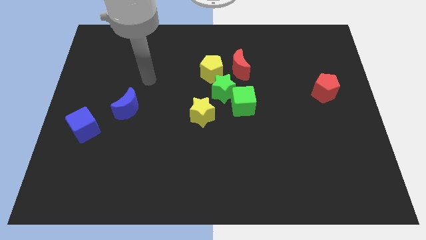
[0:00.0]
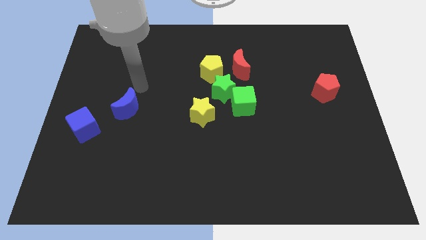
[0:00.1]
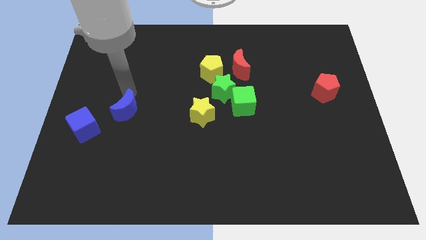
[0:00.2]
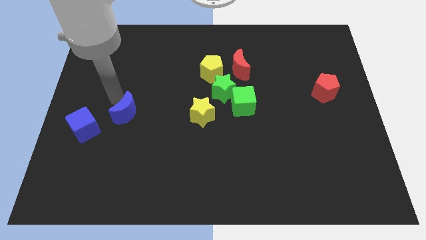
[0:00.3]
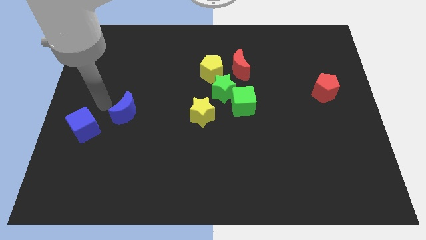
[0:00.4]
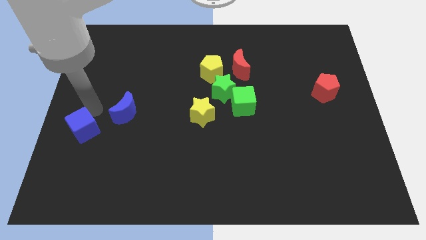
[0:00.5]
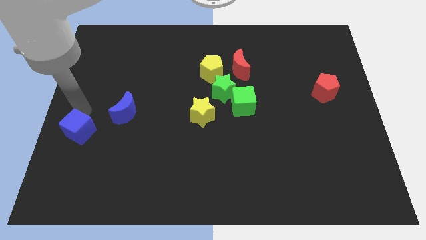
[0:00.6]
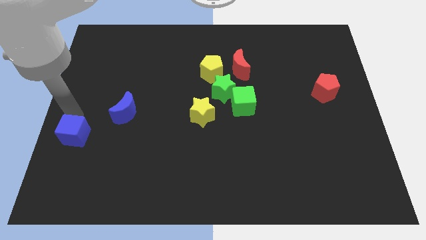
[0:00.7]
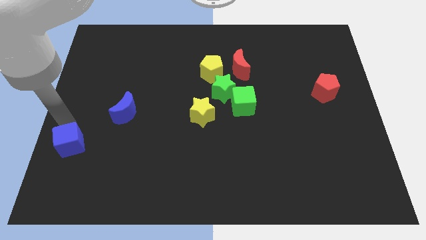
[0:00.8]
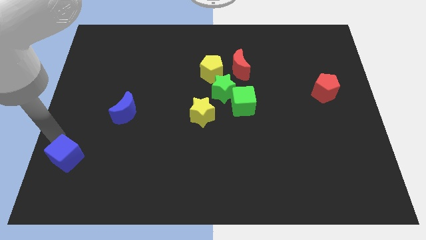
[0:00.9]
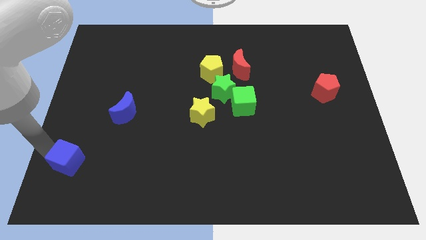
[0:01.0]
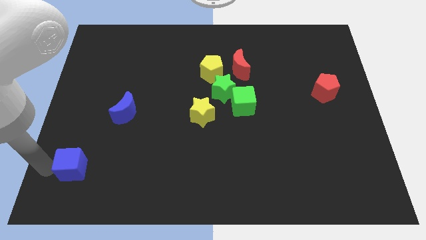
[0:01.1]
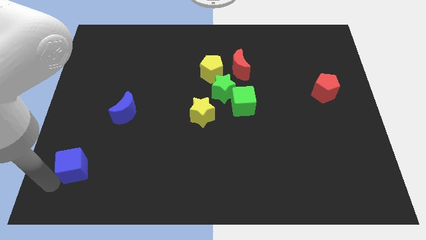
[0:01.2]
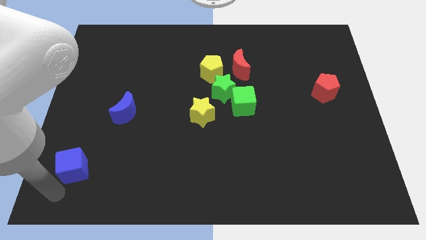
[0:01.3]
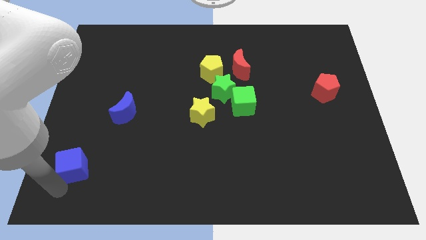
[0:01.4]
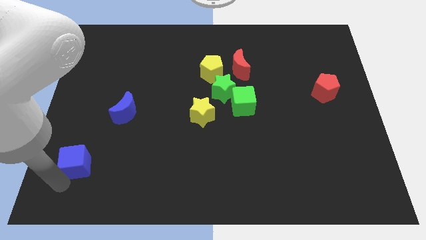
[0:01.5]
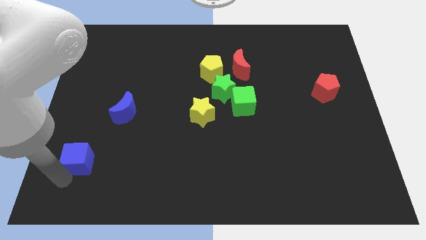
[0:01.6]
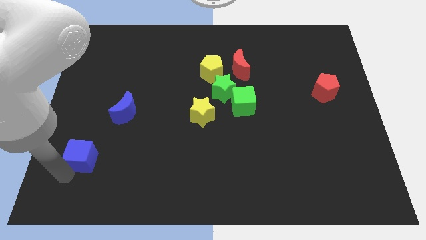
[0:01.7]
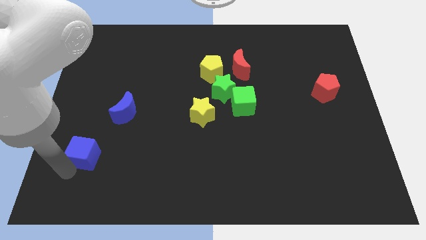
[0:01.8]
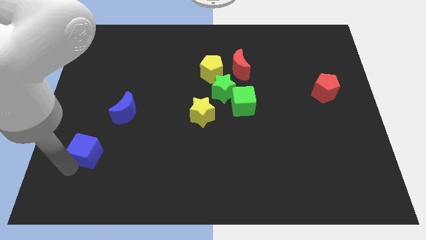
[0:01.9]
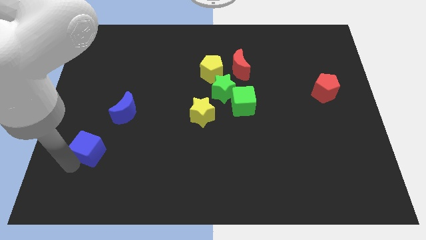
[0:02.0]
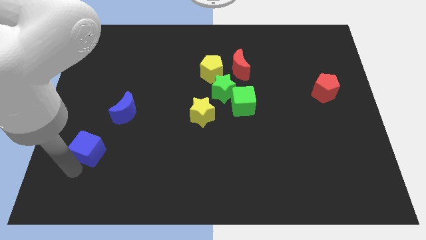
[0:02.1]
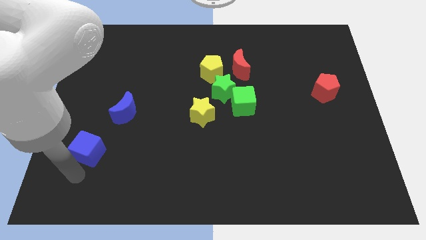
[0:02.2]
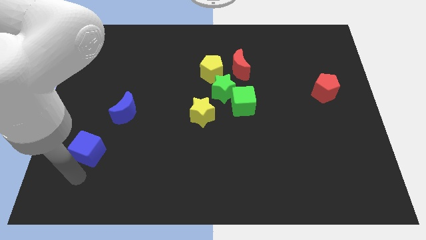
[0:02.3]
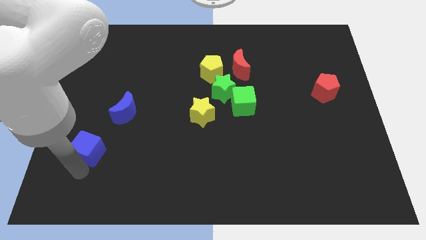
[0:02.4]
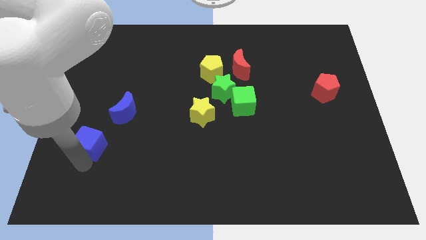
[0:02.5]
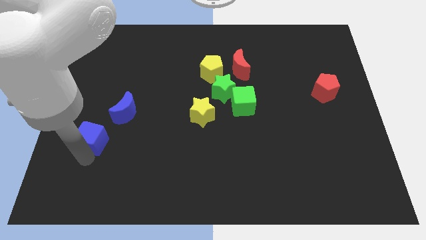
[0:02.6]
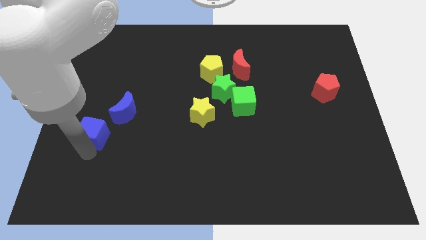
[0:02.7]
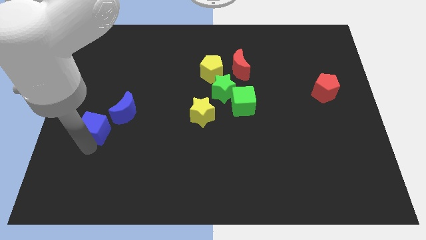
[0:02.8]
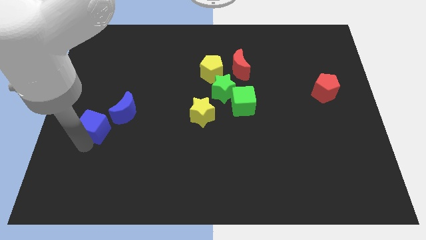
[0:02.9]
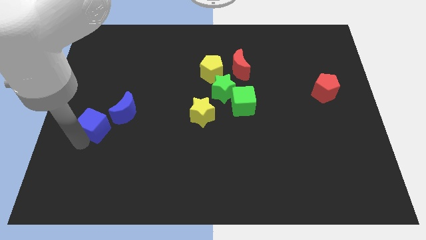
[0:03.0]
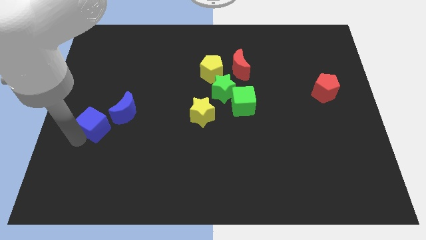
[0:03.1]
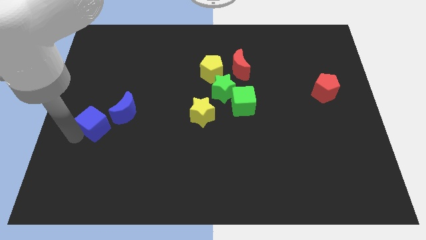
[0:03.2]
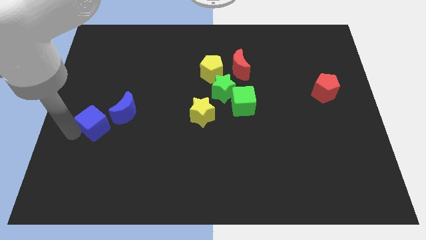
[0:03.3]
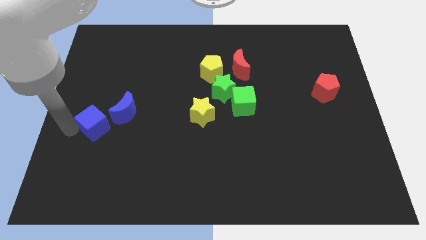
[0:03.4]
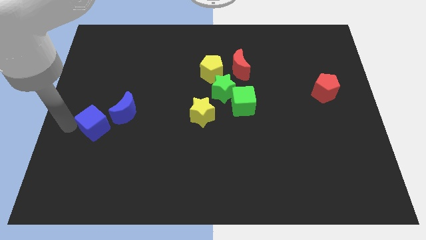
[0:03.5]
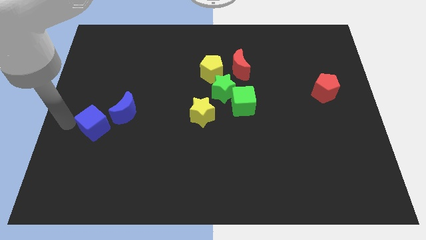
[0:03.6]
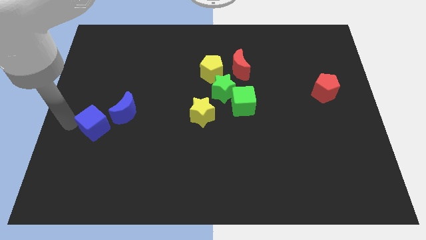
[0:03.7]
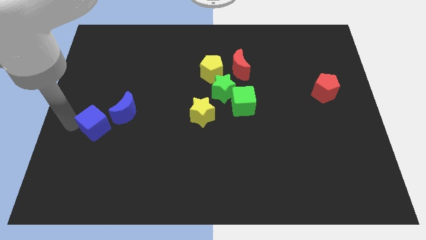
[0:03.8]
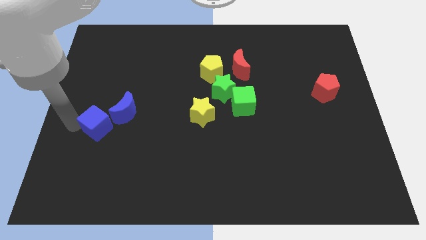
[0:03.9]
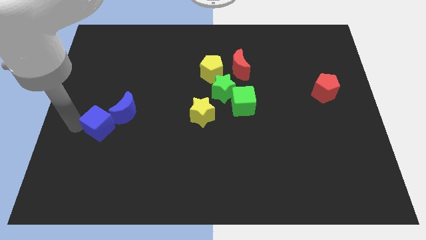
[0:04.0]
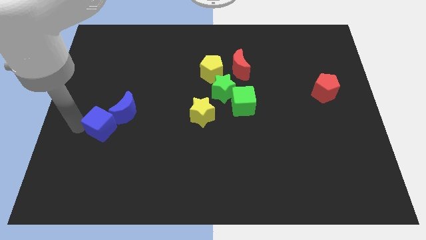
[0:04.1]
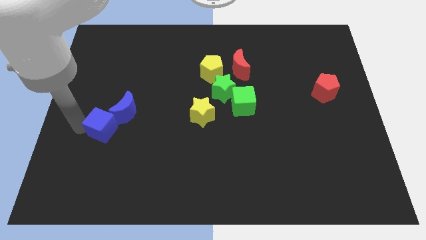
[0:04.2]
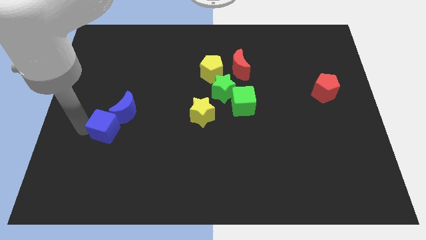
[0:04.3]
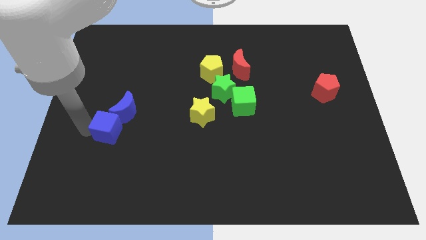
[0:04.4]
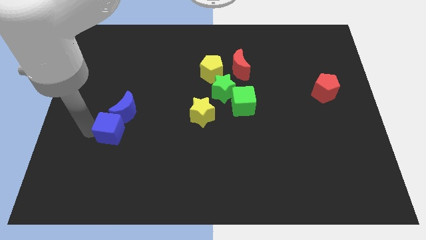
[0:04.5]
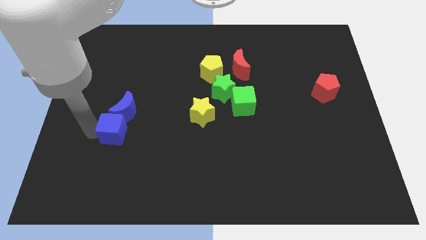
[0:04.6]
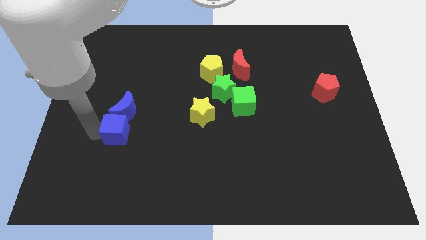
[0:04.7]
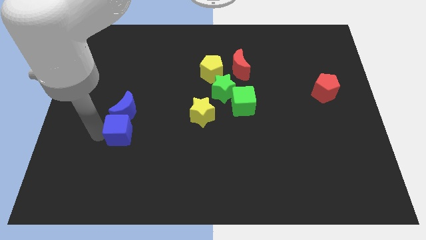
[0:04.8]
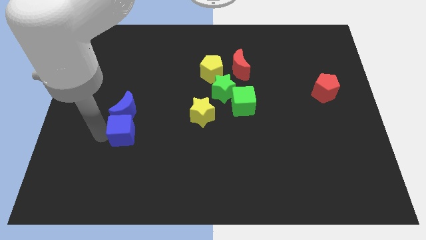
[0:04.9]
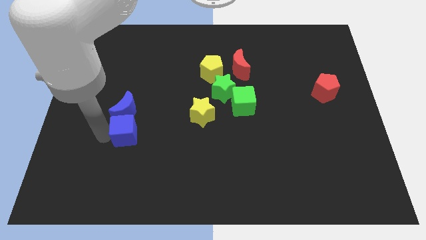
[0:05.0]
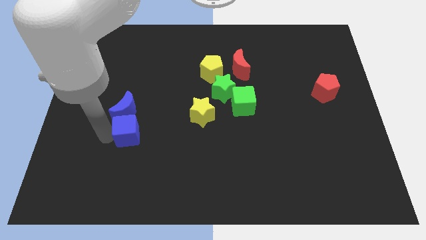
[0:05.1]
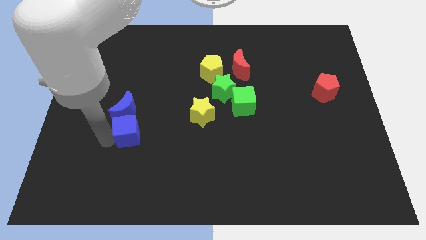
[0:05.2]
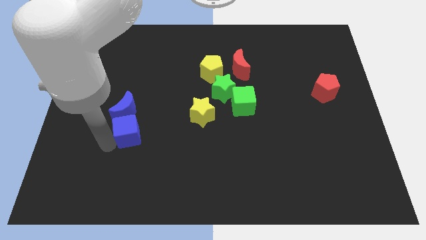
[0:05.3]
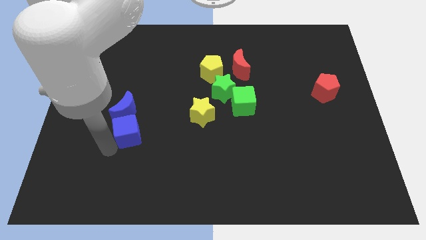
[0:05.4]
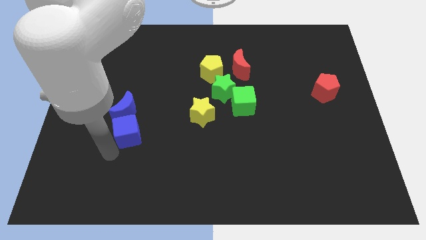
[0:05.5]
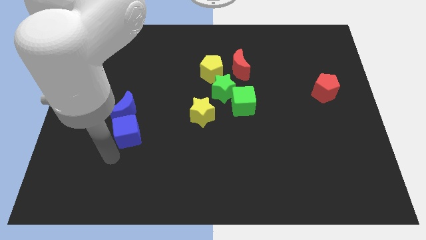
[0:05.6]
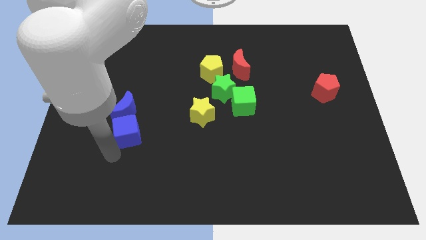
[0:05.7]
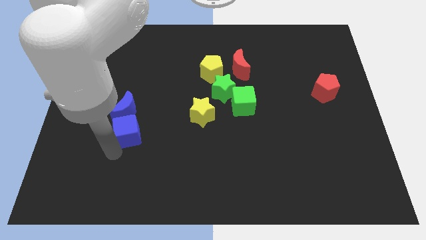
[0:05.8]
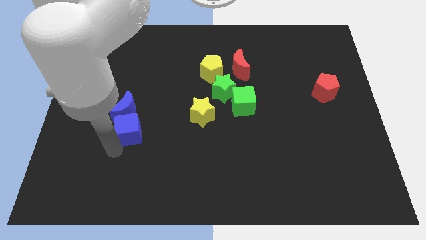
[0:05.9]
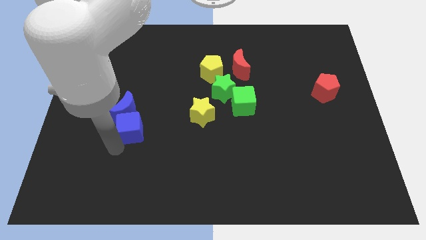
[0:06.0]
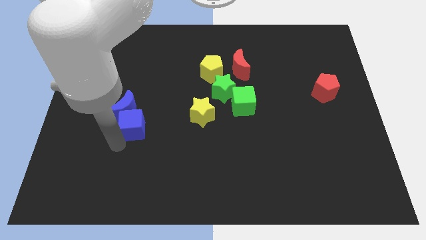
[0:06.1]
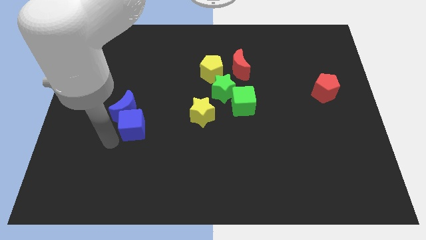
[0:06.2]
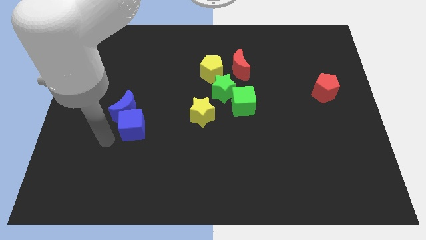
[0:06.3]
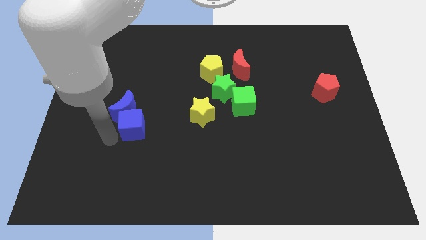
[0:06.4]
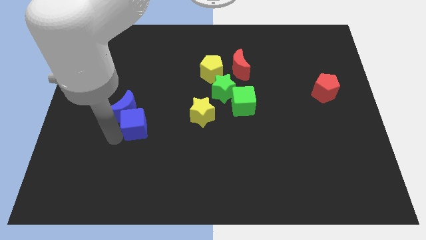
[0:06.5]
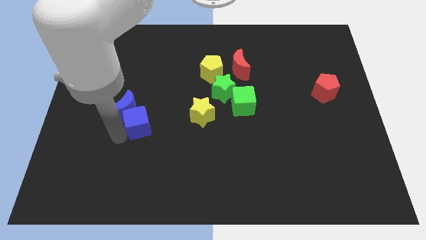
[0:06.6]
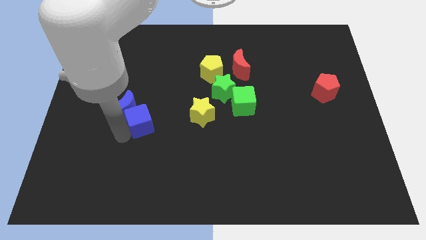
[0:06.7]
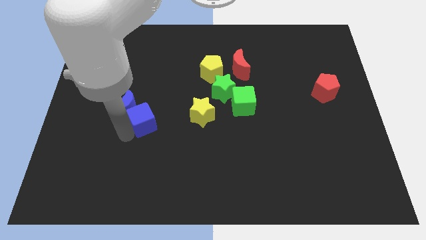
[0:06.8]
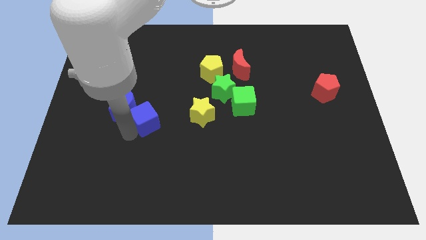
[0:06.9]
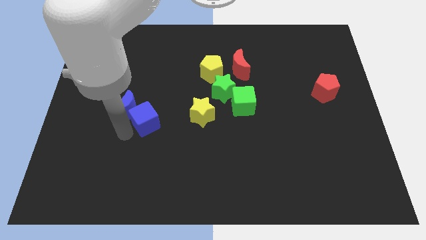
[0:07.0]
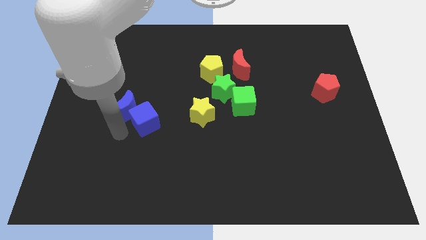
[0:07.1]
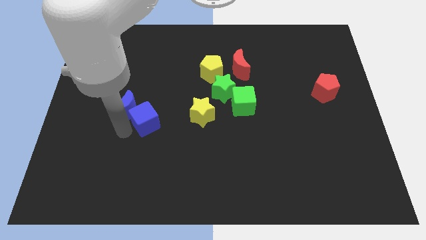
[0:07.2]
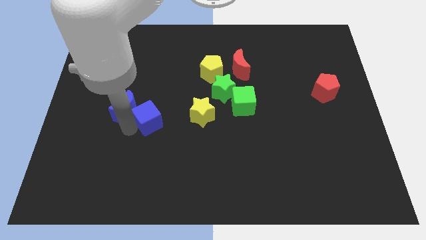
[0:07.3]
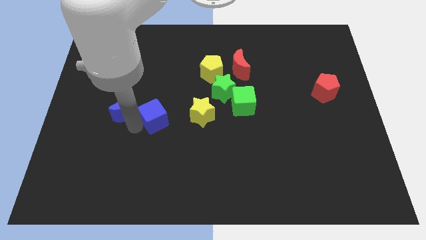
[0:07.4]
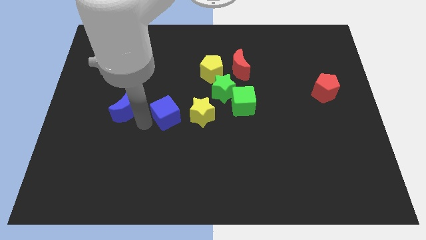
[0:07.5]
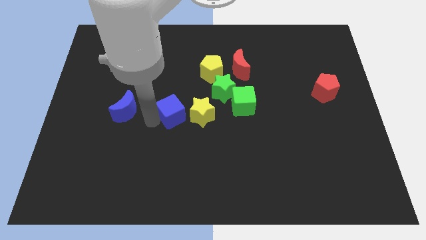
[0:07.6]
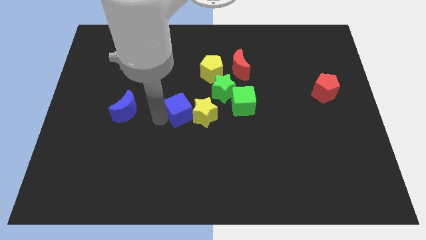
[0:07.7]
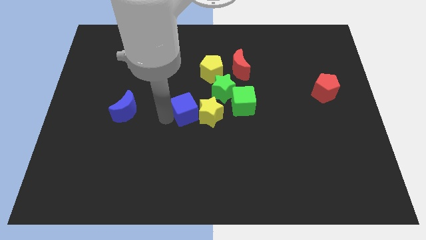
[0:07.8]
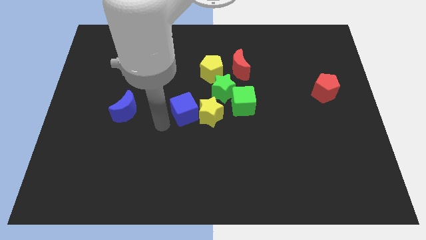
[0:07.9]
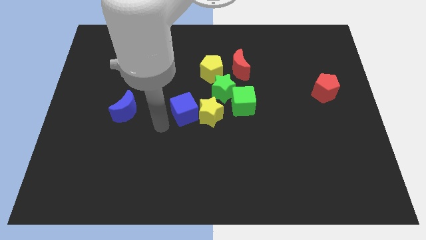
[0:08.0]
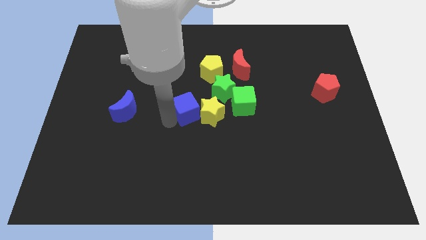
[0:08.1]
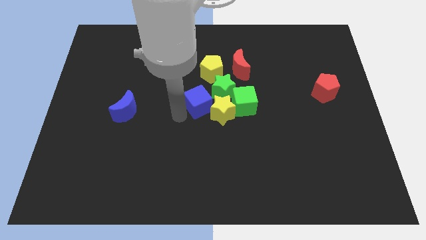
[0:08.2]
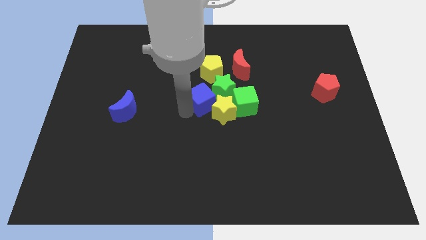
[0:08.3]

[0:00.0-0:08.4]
move the blue cube next to the green star
